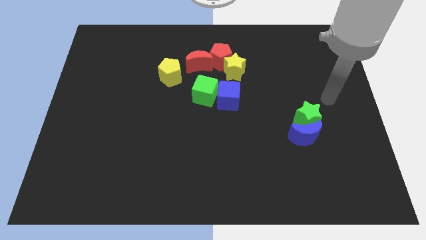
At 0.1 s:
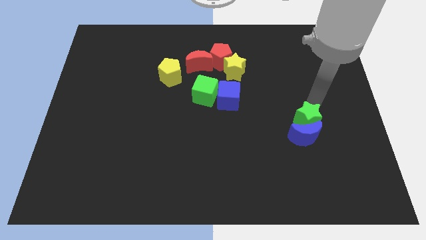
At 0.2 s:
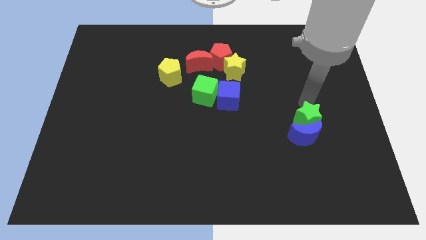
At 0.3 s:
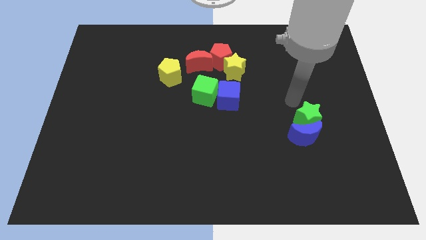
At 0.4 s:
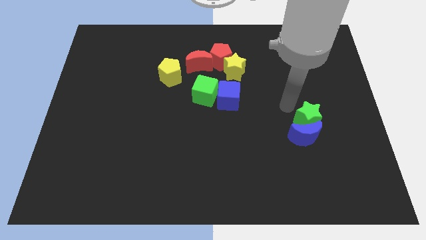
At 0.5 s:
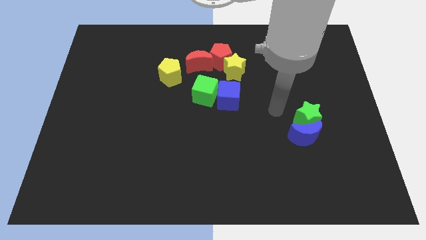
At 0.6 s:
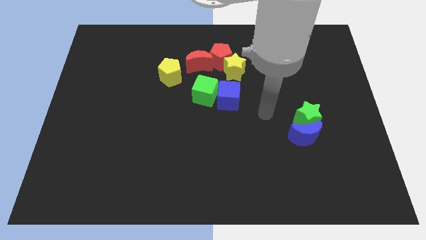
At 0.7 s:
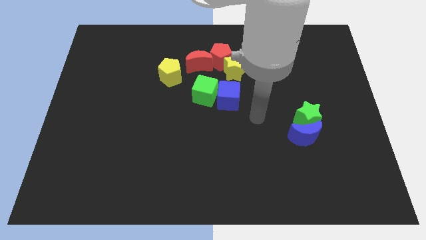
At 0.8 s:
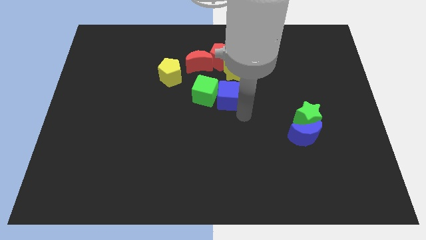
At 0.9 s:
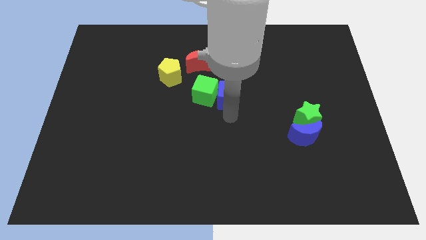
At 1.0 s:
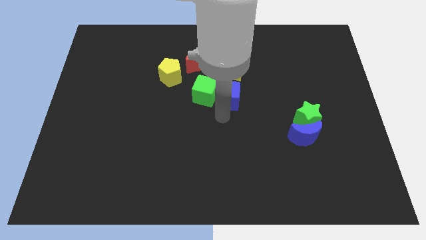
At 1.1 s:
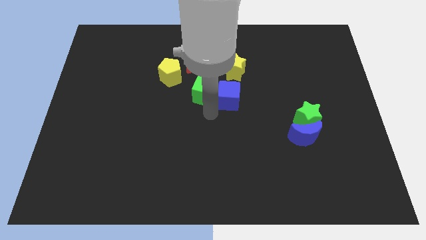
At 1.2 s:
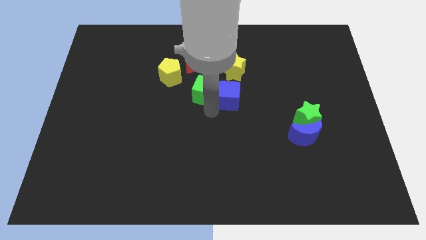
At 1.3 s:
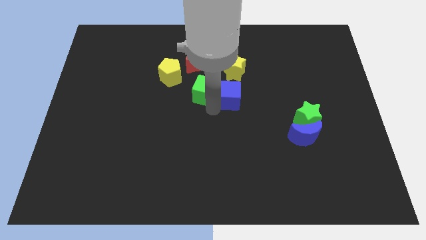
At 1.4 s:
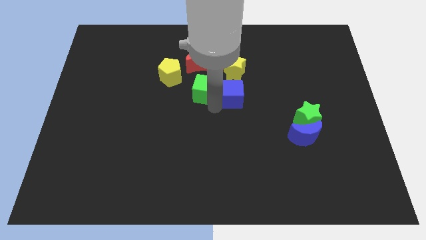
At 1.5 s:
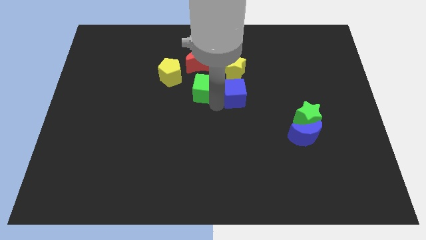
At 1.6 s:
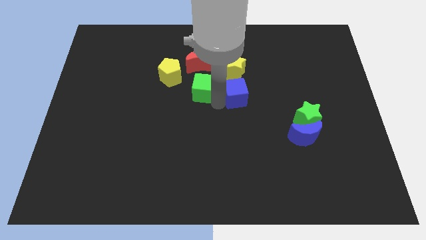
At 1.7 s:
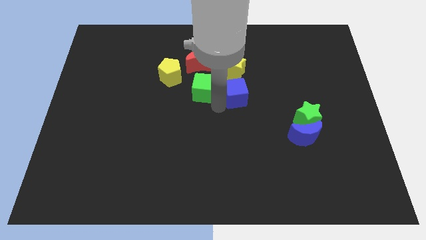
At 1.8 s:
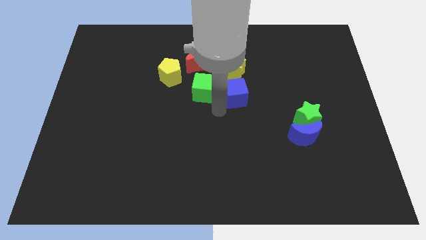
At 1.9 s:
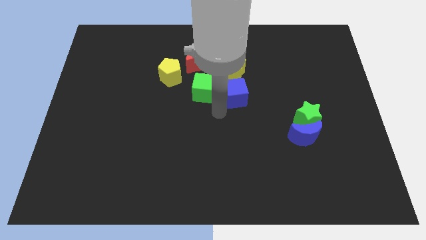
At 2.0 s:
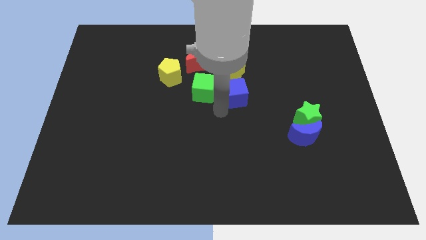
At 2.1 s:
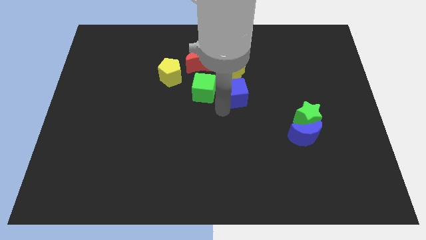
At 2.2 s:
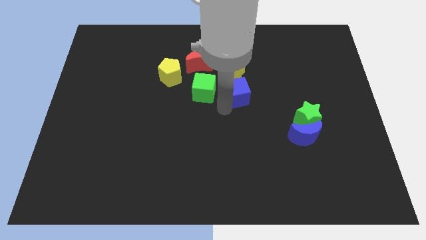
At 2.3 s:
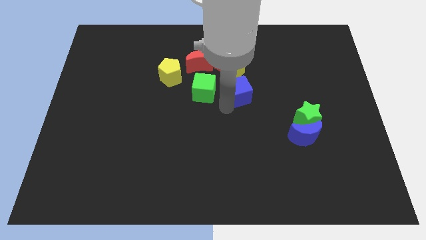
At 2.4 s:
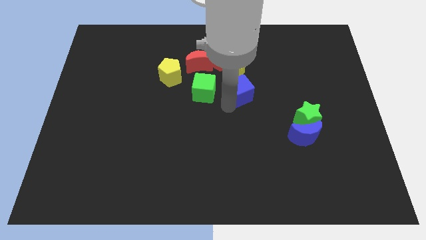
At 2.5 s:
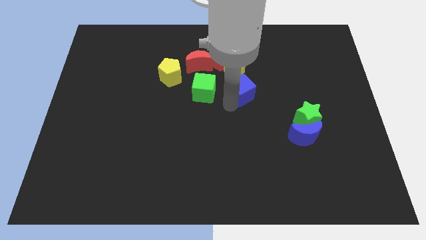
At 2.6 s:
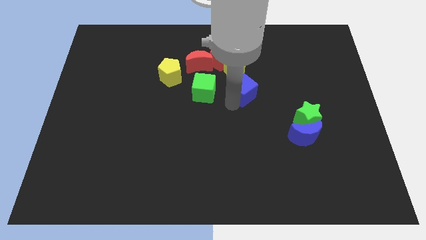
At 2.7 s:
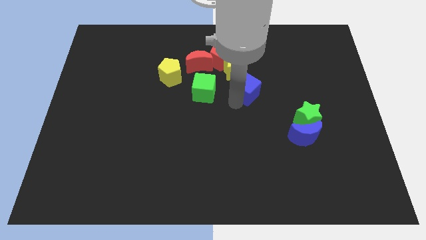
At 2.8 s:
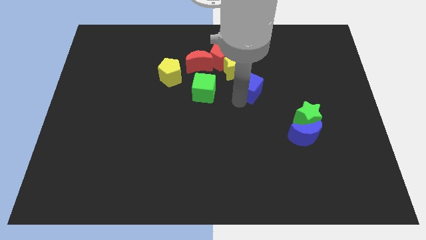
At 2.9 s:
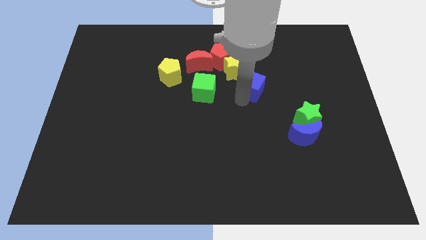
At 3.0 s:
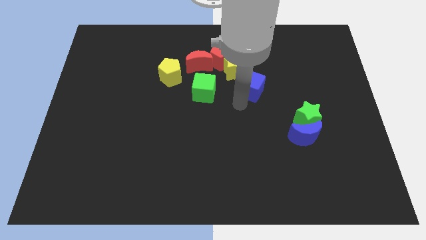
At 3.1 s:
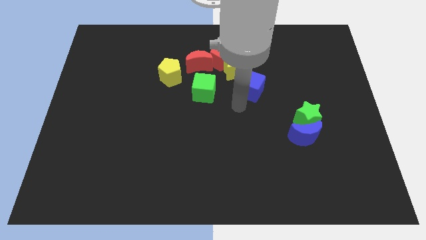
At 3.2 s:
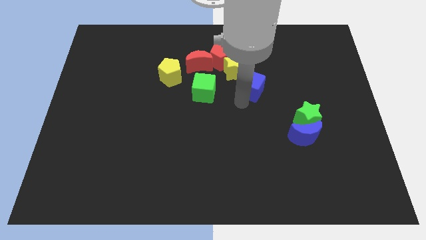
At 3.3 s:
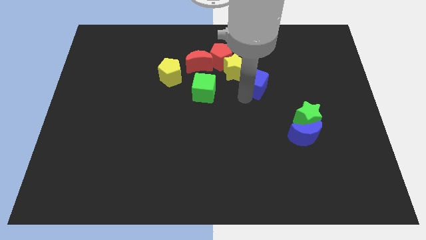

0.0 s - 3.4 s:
slightly slide the blue cube up and right

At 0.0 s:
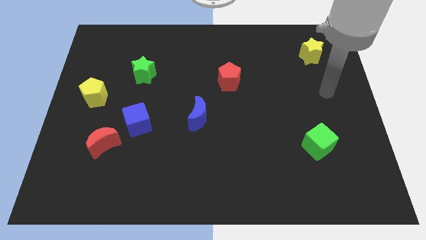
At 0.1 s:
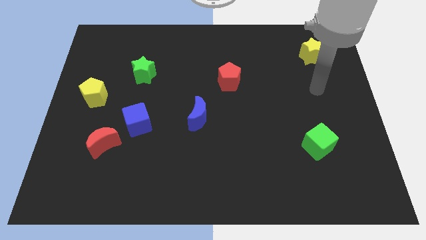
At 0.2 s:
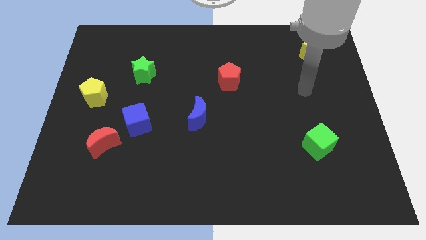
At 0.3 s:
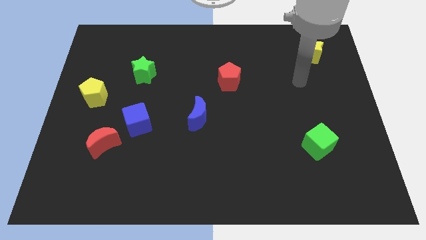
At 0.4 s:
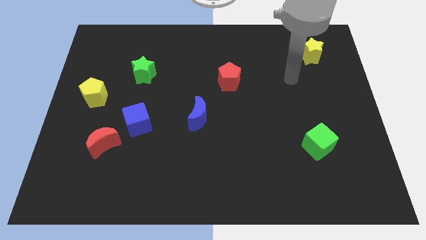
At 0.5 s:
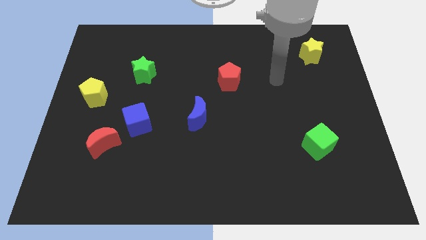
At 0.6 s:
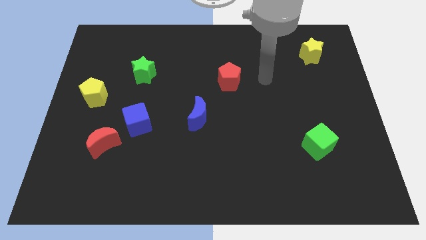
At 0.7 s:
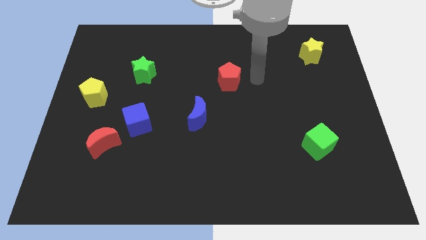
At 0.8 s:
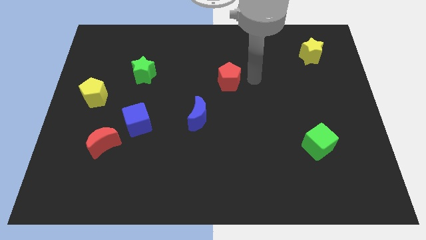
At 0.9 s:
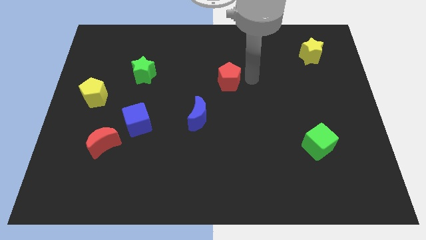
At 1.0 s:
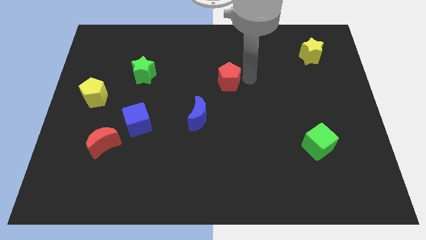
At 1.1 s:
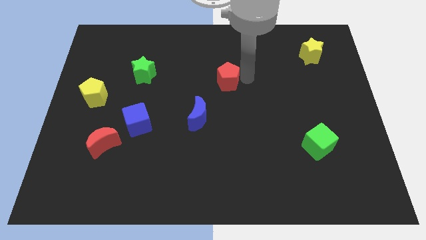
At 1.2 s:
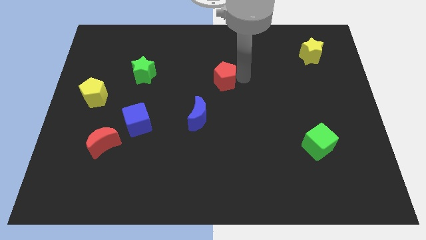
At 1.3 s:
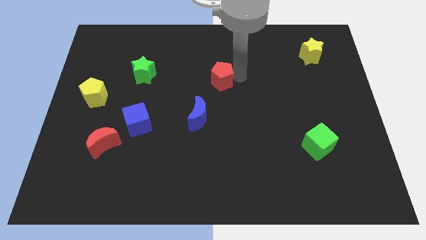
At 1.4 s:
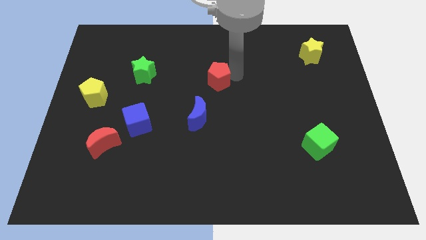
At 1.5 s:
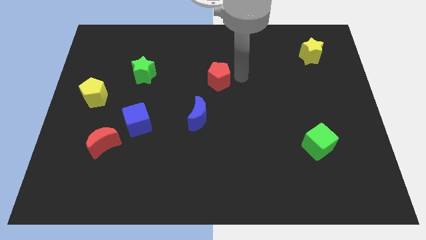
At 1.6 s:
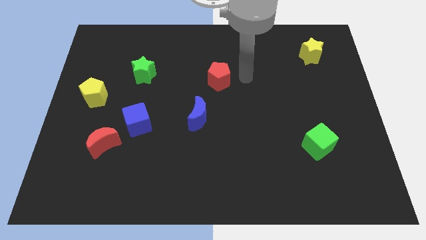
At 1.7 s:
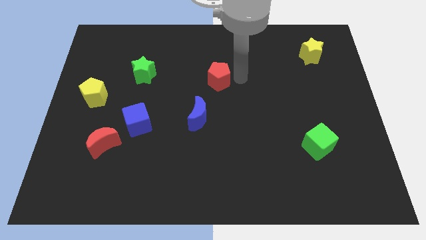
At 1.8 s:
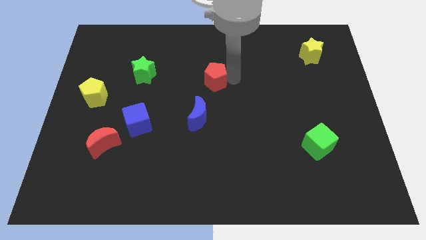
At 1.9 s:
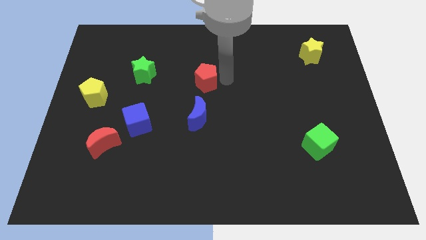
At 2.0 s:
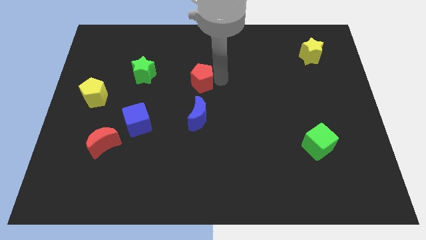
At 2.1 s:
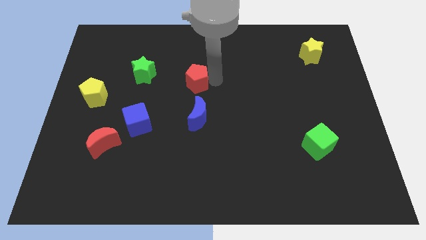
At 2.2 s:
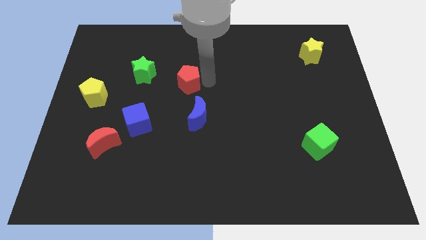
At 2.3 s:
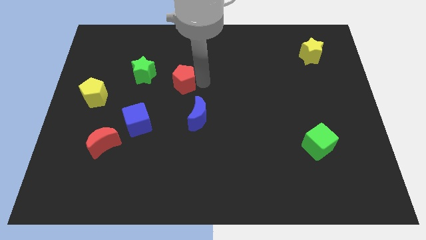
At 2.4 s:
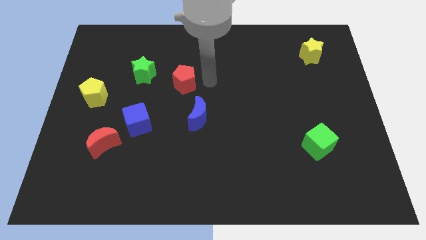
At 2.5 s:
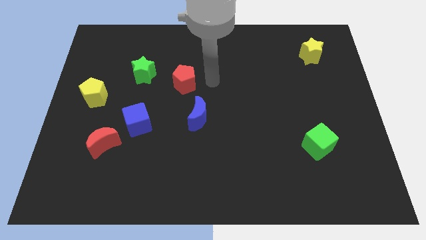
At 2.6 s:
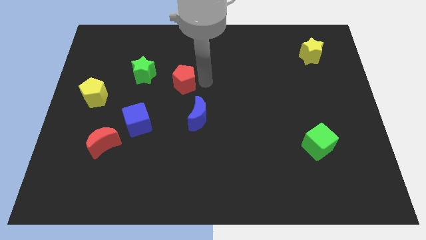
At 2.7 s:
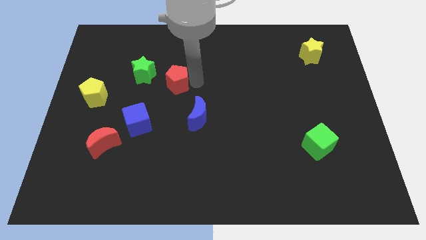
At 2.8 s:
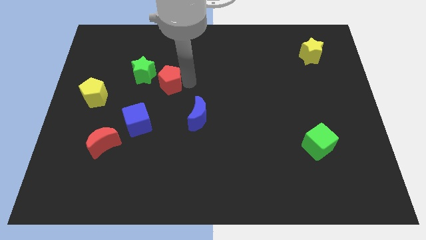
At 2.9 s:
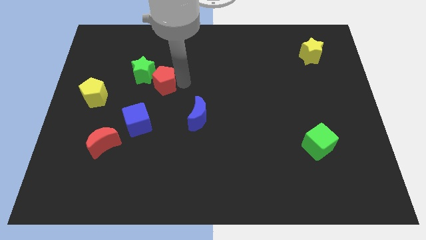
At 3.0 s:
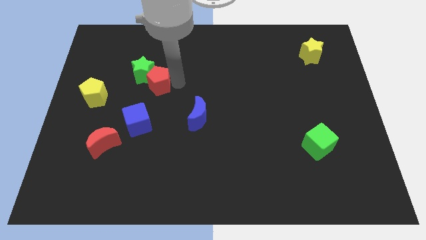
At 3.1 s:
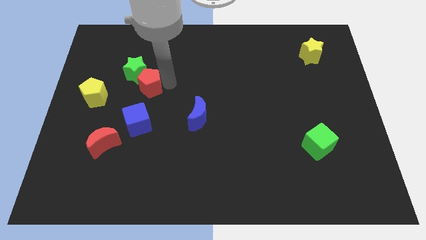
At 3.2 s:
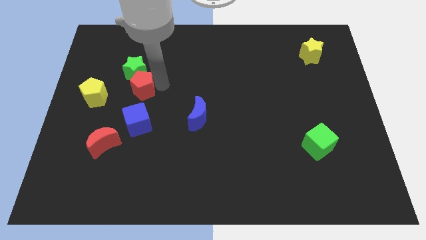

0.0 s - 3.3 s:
push the red pentagon to the left

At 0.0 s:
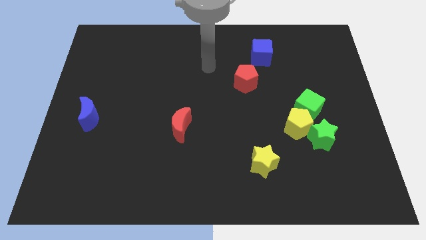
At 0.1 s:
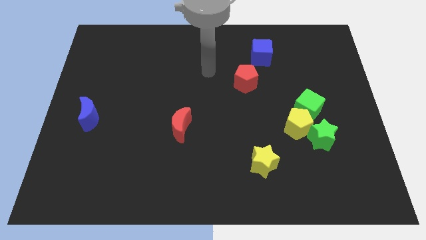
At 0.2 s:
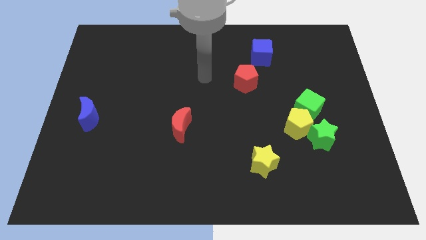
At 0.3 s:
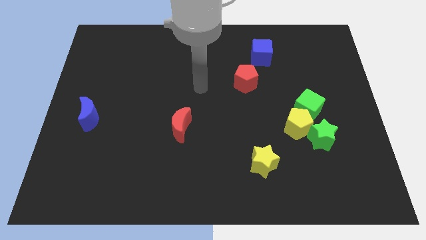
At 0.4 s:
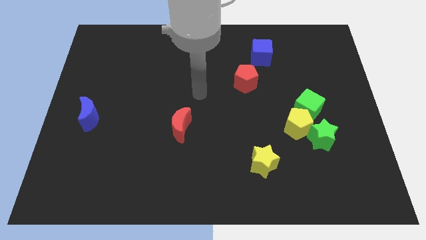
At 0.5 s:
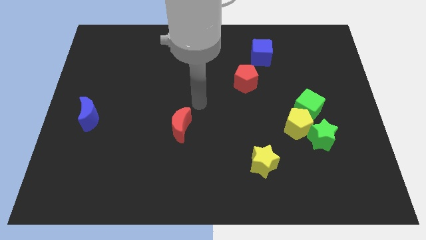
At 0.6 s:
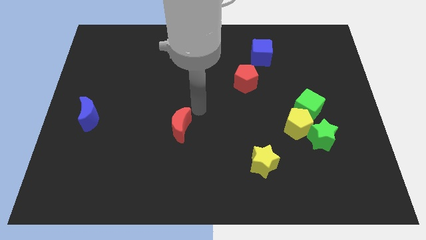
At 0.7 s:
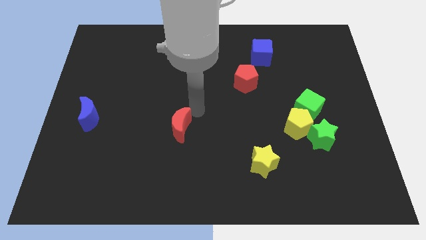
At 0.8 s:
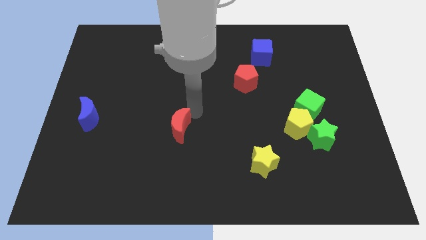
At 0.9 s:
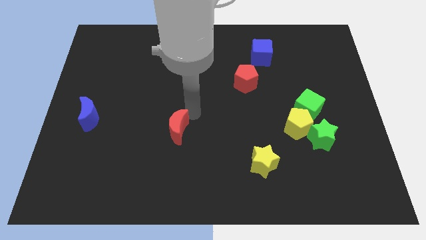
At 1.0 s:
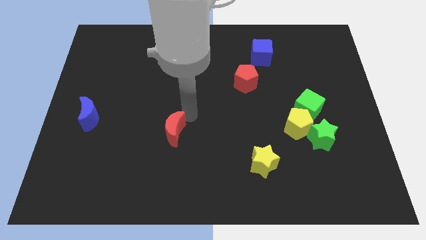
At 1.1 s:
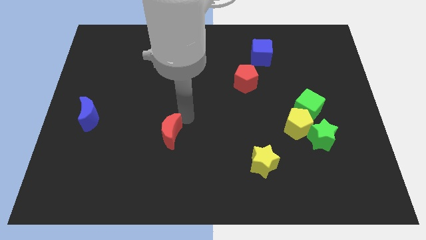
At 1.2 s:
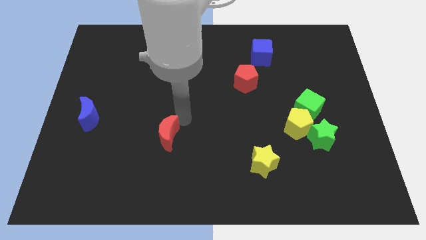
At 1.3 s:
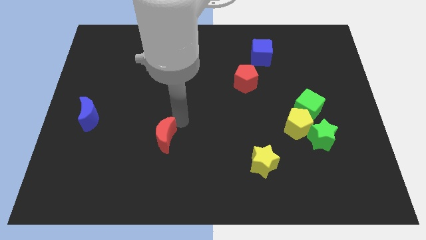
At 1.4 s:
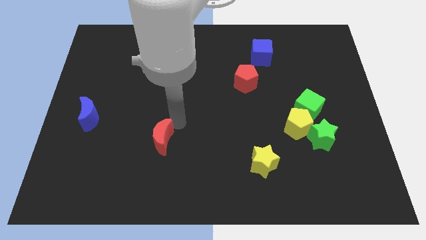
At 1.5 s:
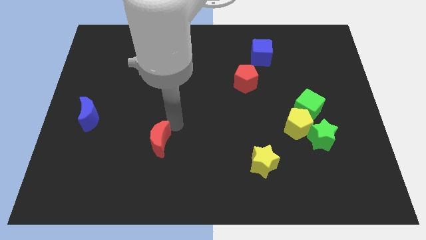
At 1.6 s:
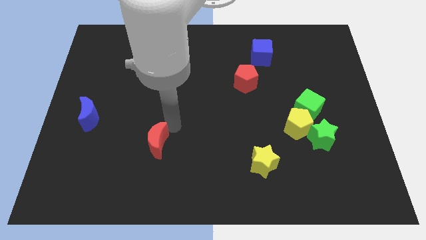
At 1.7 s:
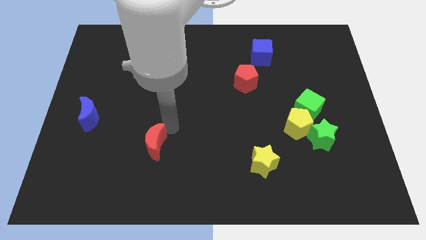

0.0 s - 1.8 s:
slide the red moon a little bit down and left diagonally
